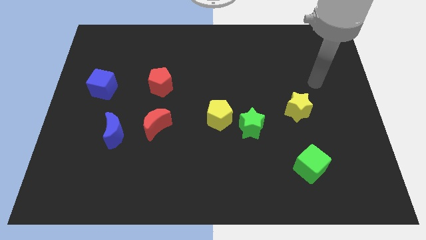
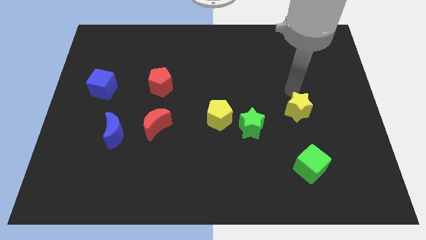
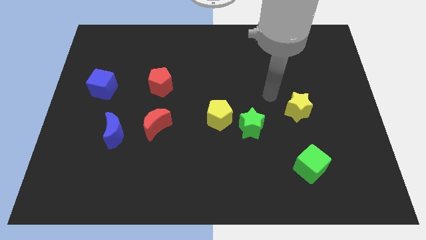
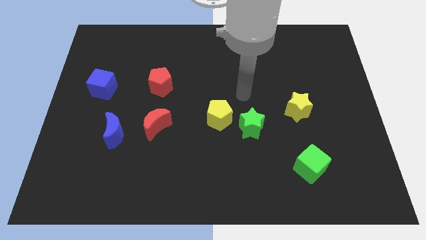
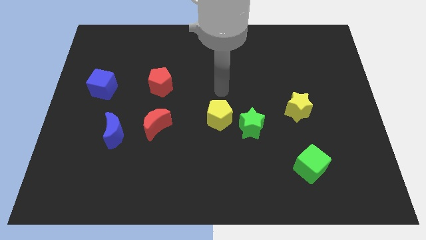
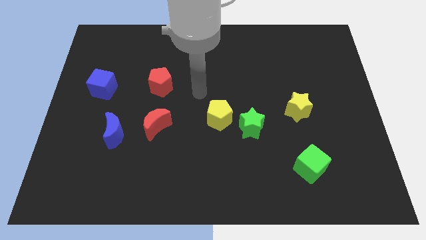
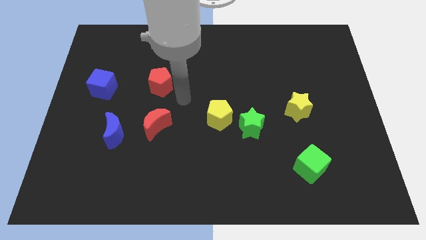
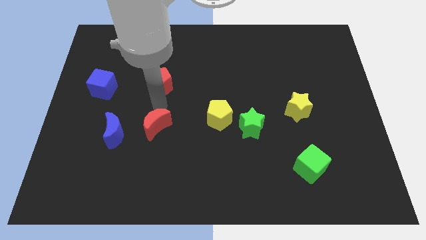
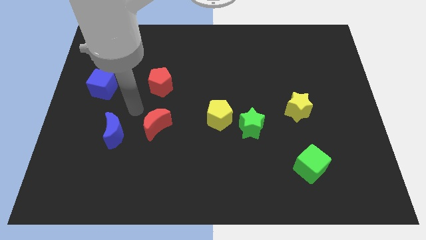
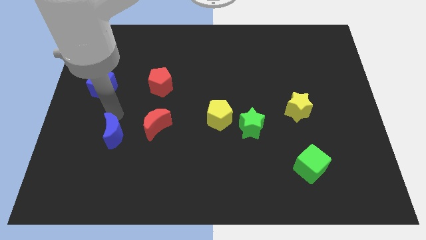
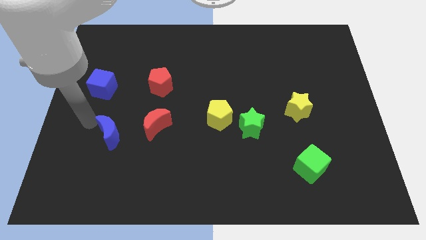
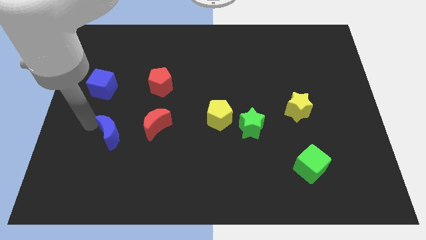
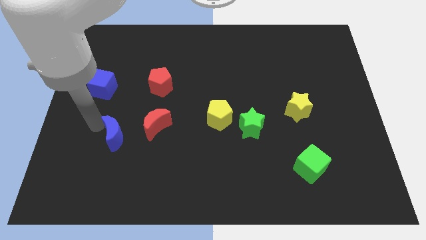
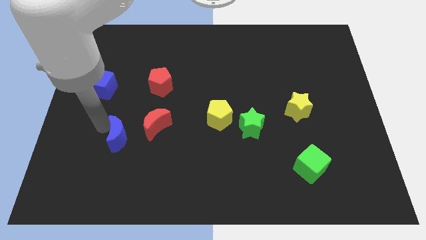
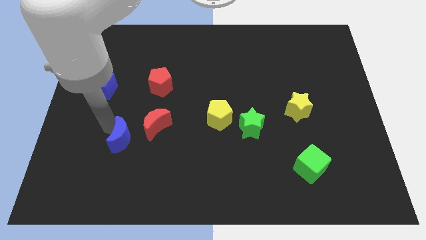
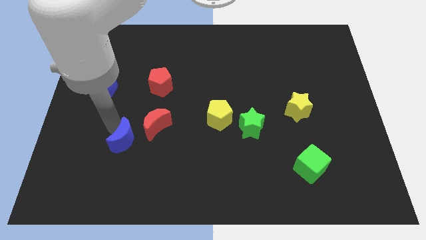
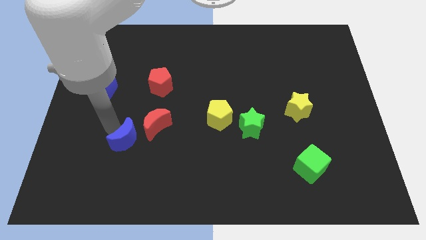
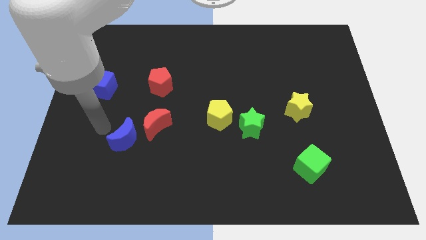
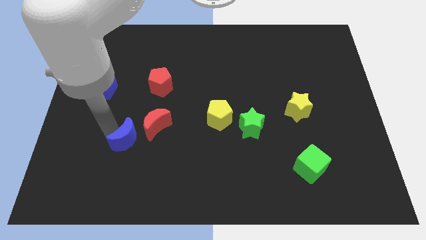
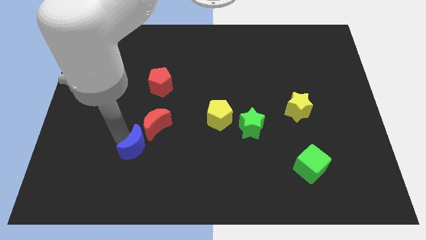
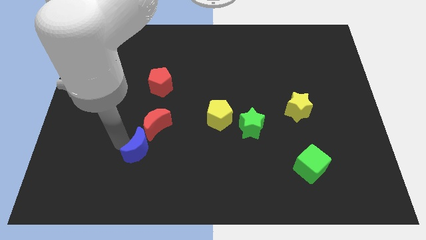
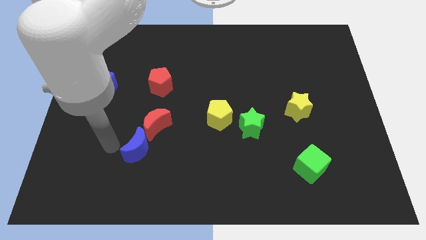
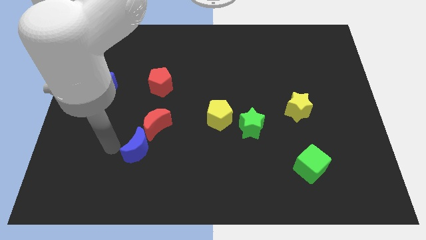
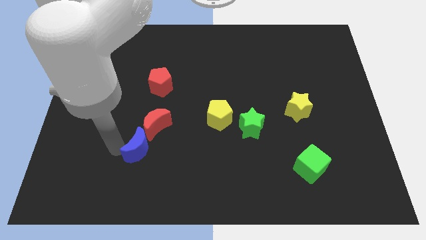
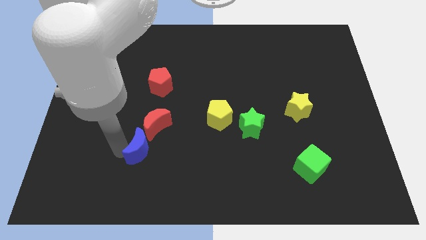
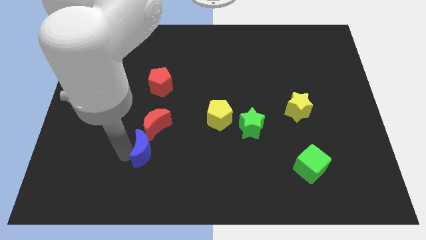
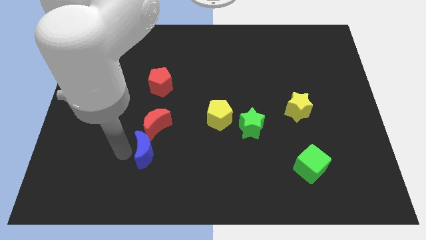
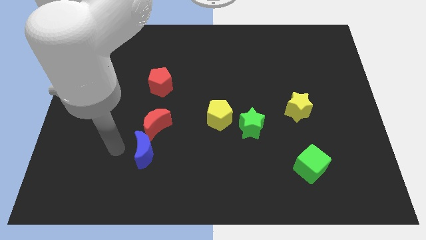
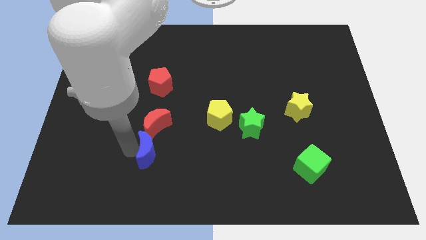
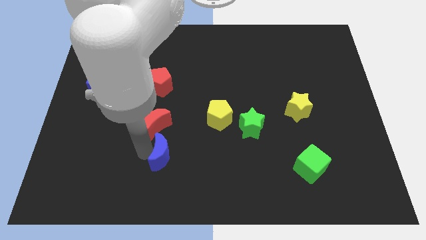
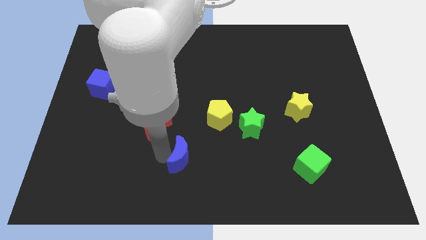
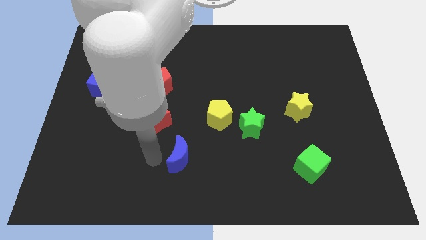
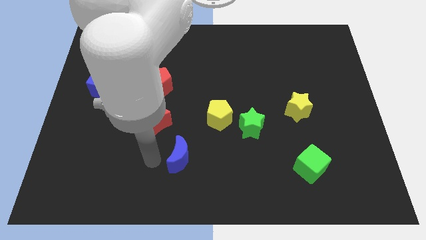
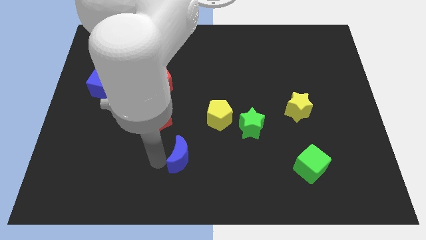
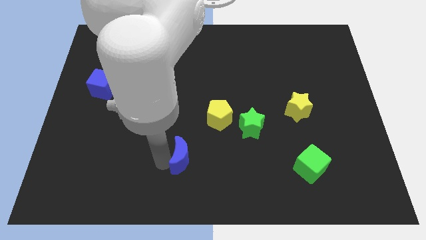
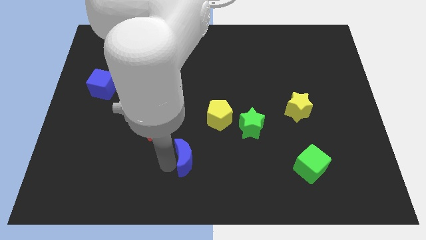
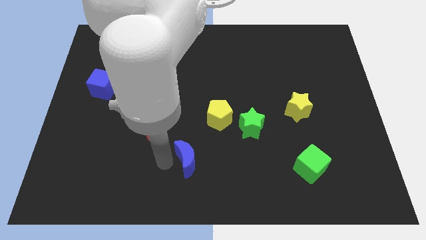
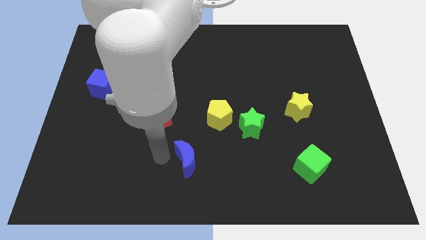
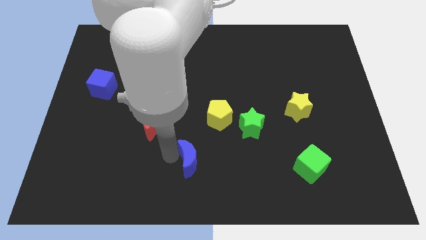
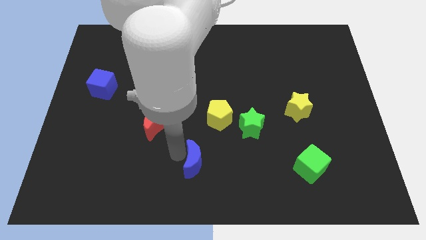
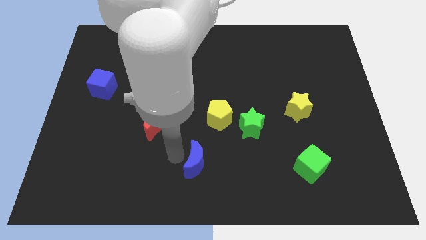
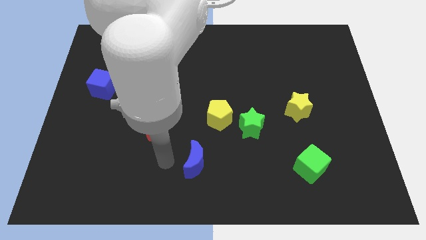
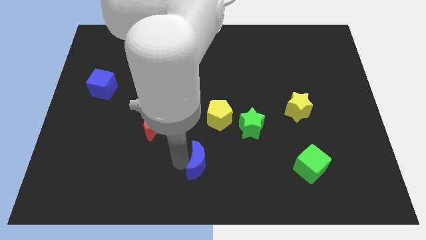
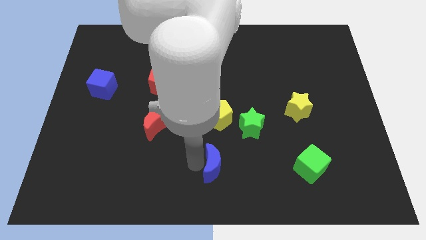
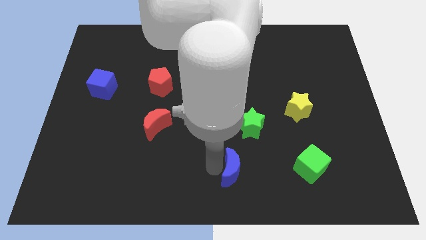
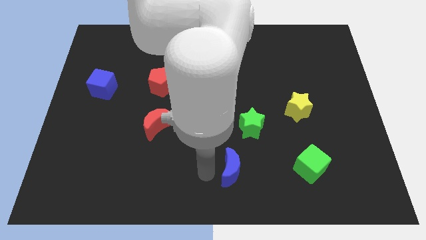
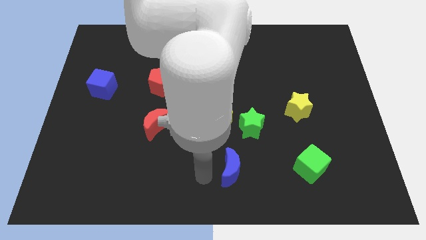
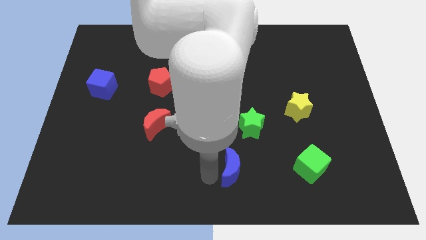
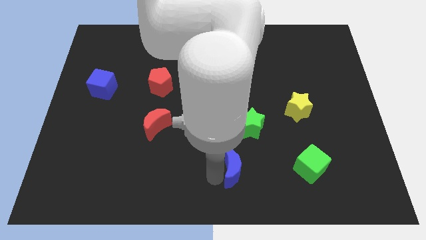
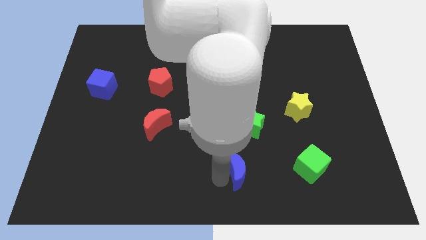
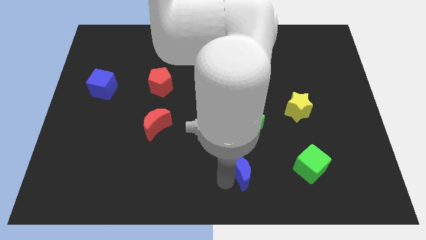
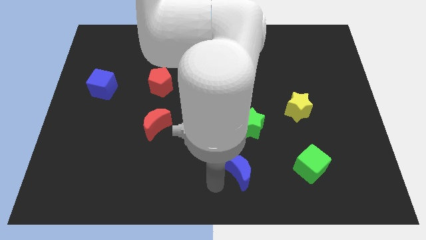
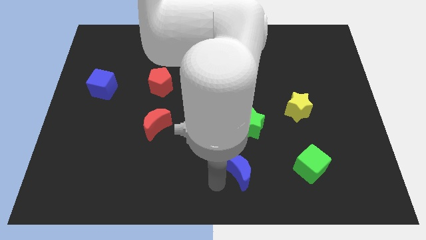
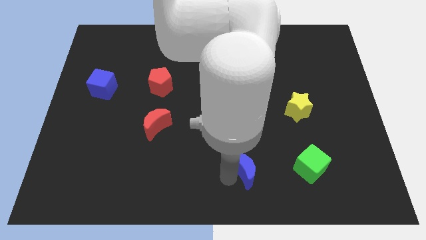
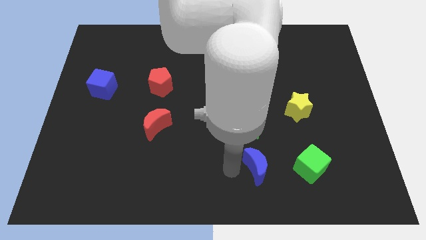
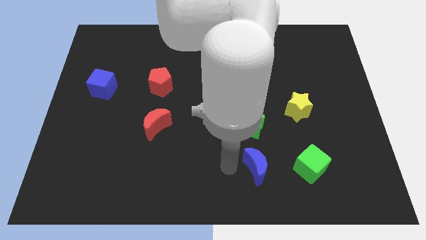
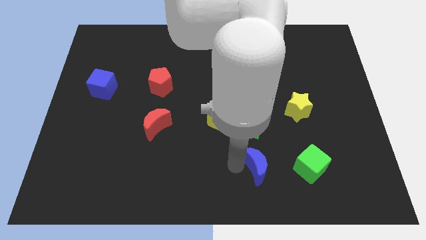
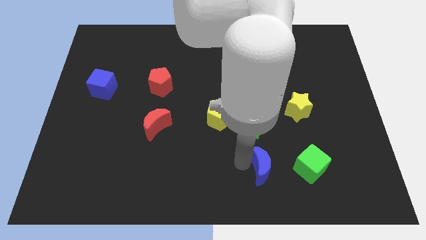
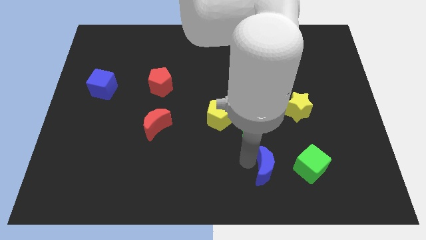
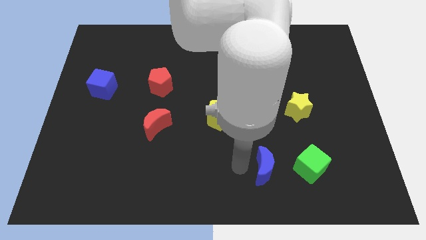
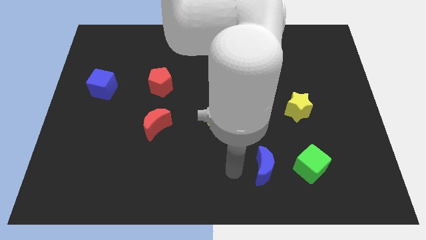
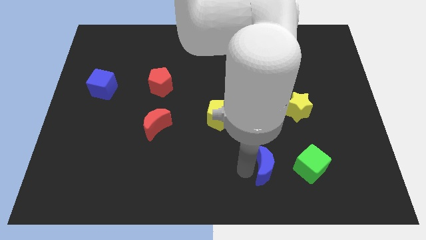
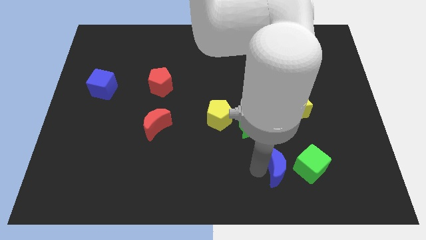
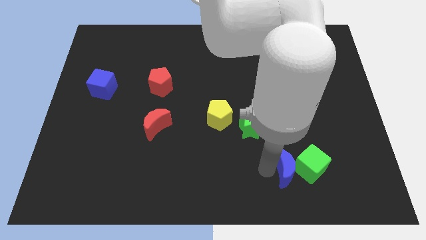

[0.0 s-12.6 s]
slide the blue moon to the green cube

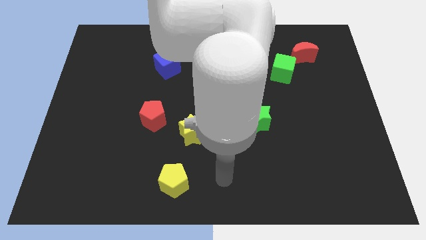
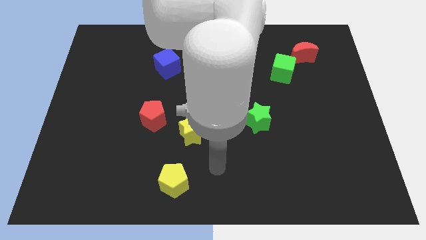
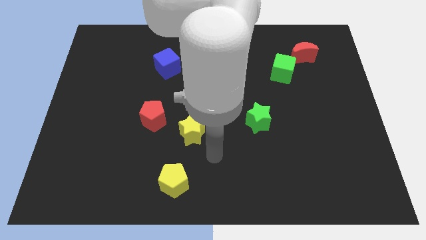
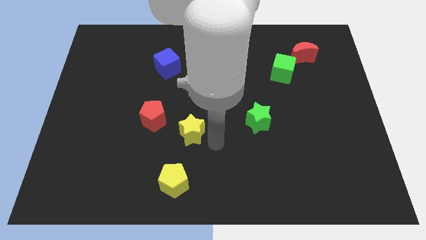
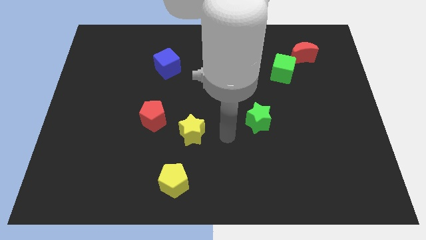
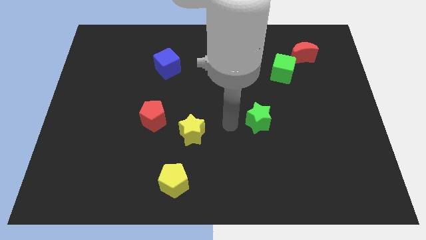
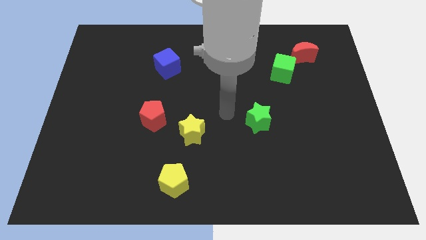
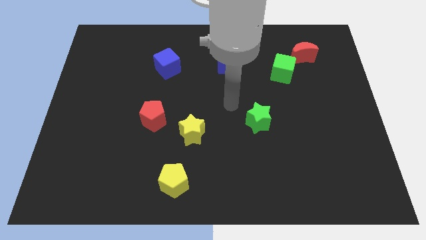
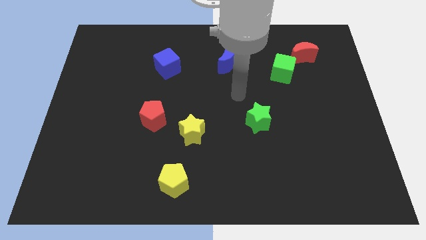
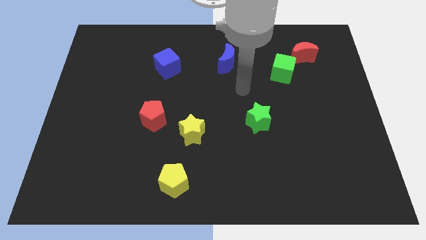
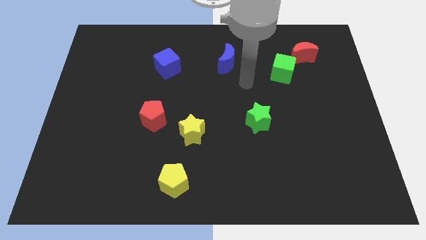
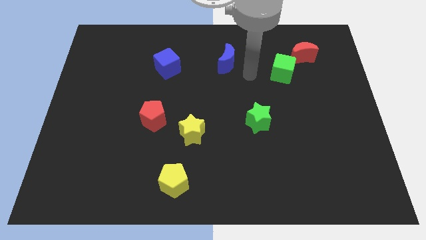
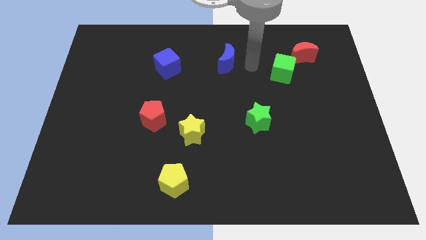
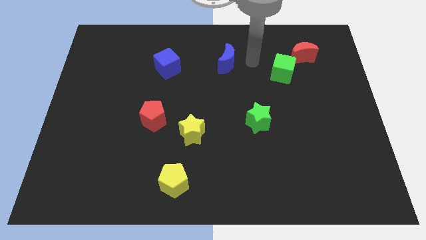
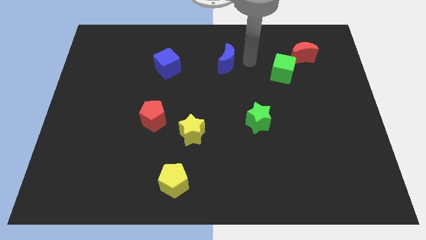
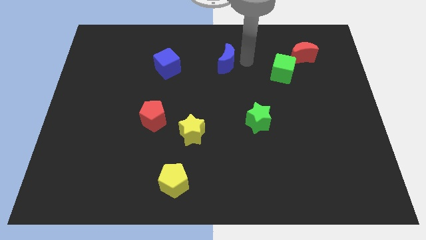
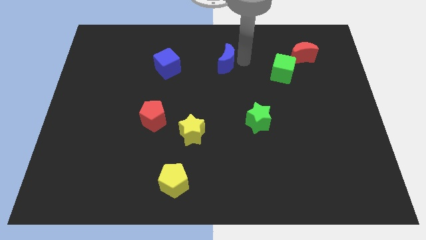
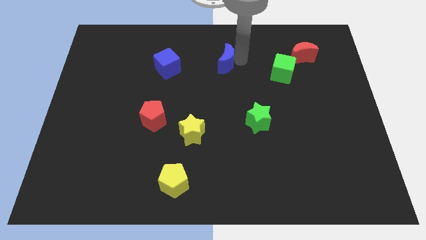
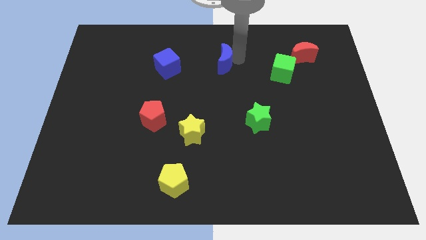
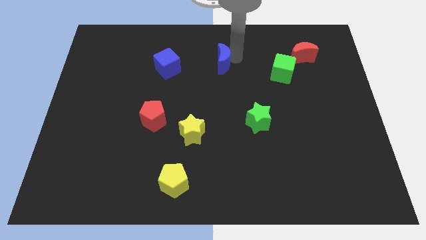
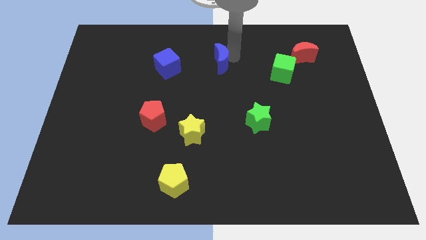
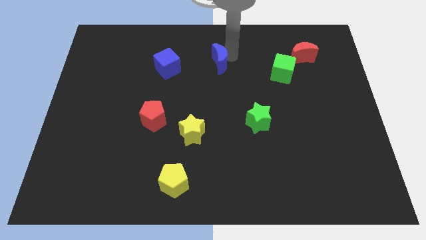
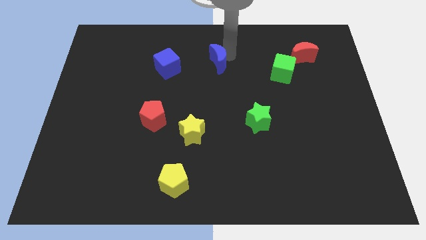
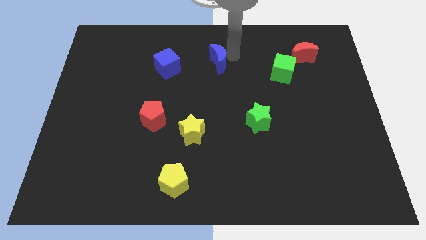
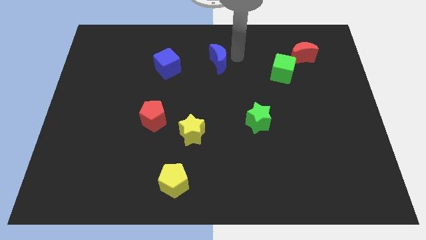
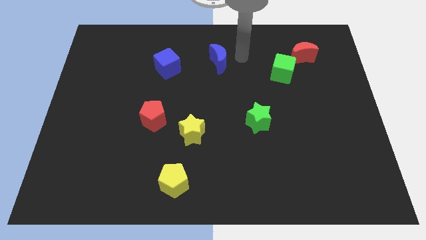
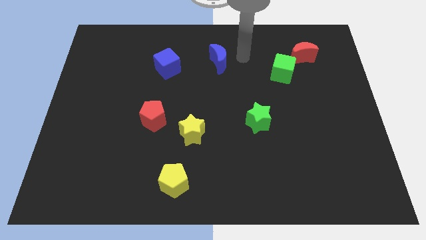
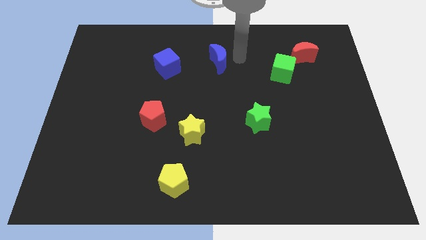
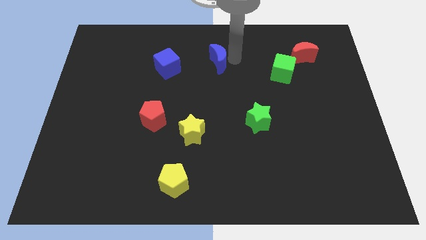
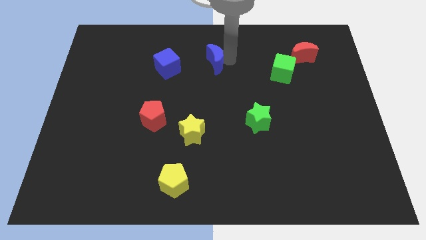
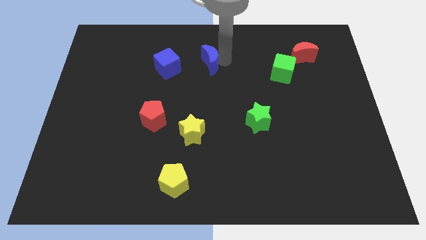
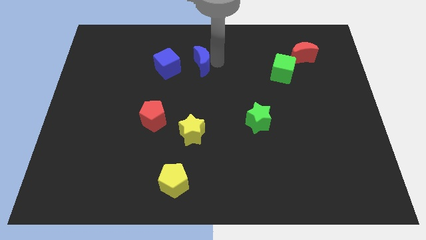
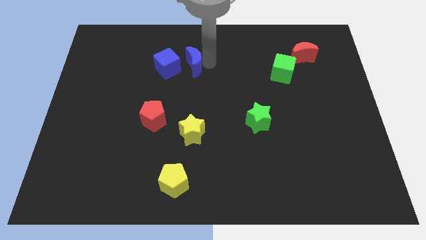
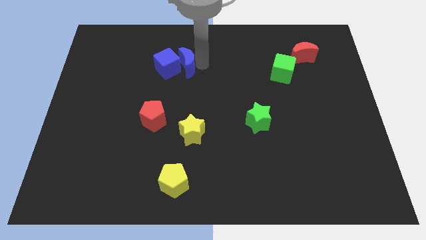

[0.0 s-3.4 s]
move the blue moon close to the blue cube
